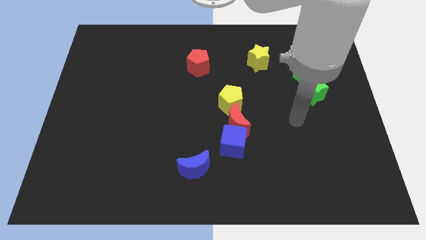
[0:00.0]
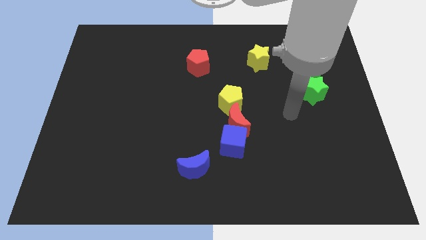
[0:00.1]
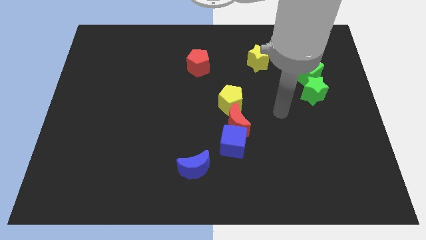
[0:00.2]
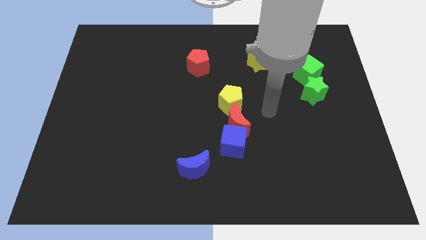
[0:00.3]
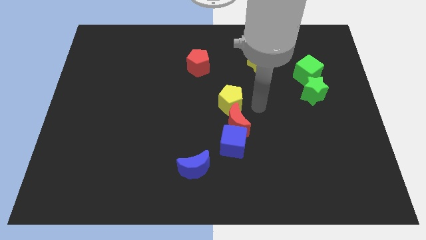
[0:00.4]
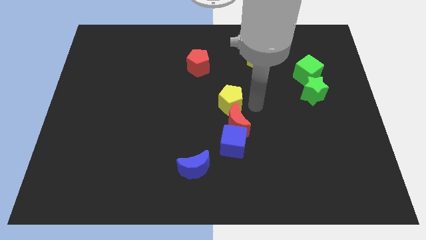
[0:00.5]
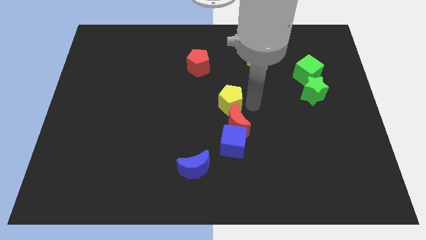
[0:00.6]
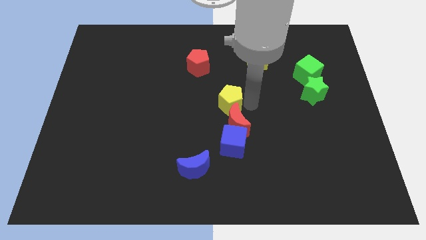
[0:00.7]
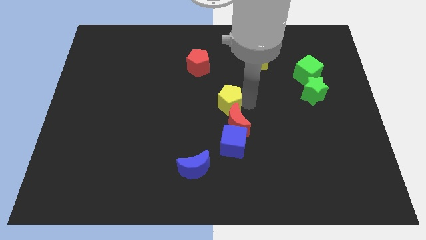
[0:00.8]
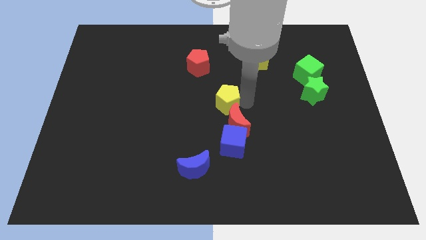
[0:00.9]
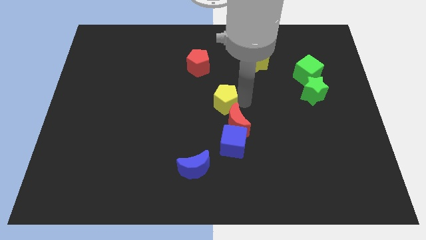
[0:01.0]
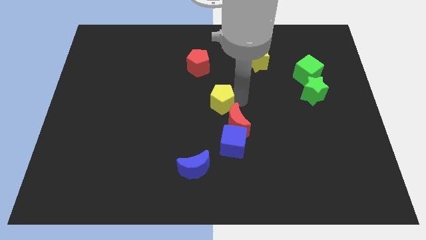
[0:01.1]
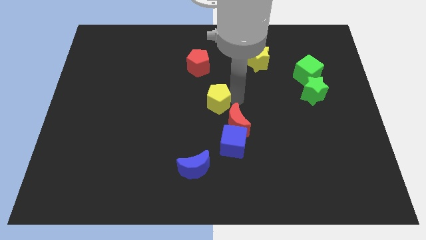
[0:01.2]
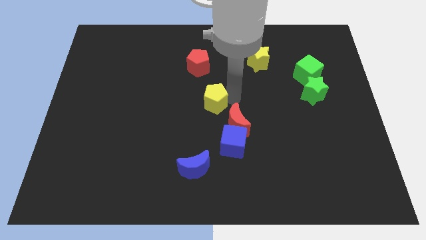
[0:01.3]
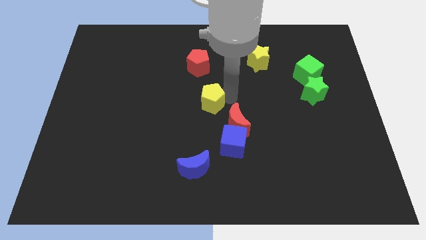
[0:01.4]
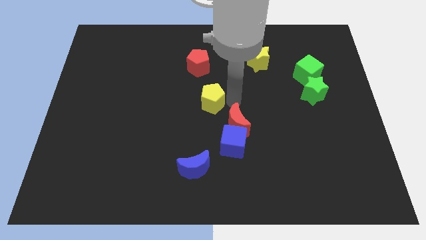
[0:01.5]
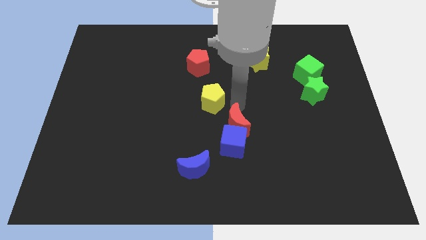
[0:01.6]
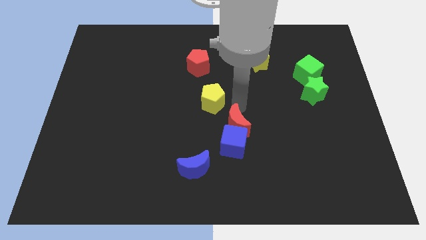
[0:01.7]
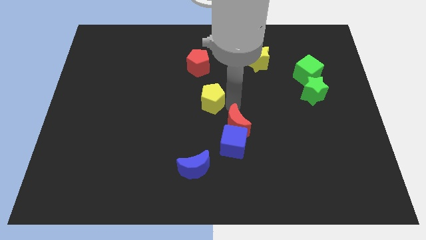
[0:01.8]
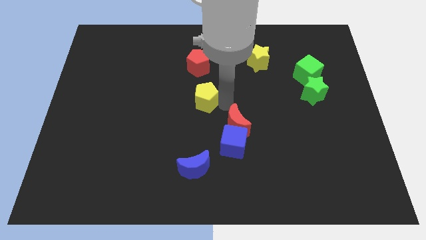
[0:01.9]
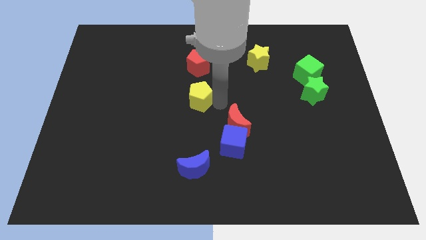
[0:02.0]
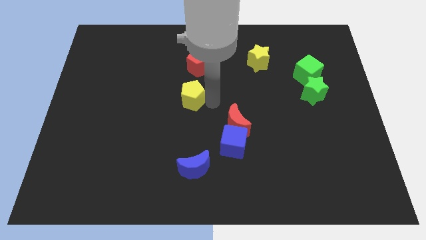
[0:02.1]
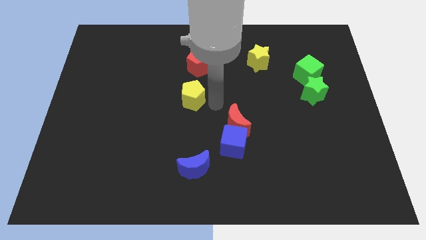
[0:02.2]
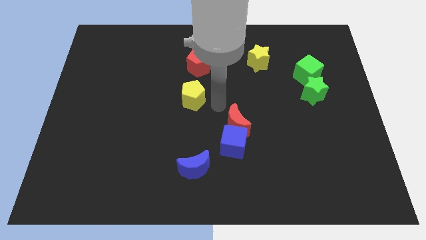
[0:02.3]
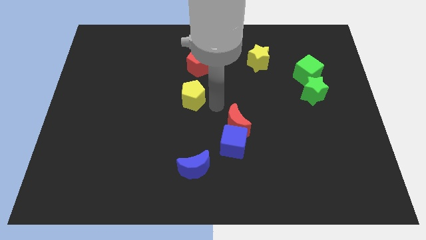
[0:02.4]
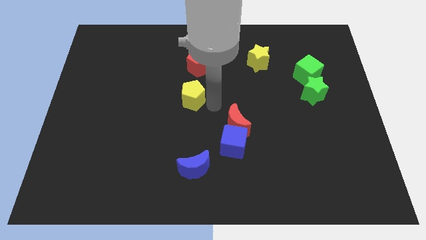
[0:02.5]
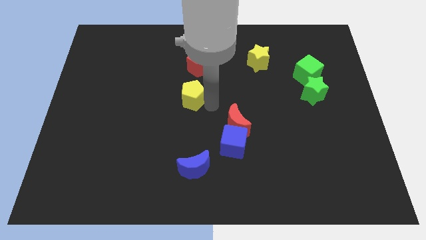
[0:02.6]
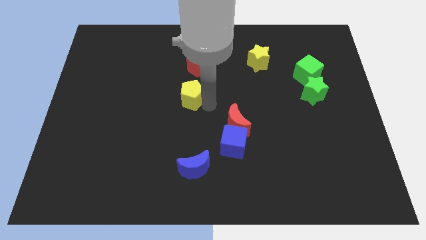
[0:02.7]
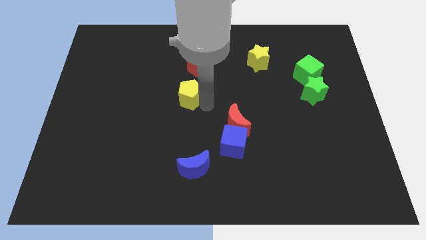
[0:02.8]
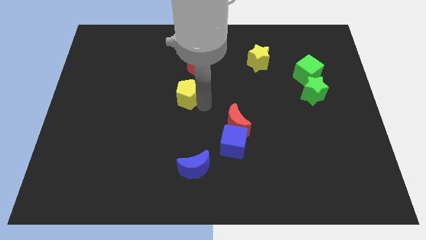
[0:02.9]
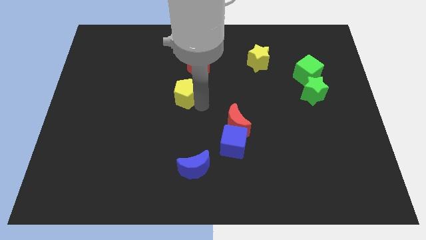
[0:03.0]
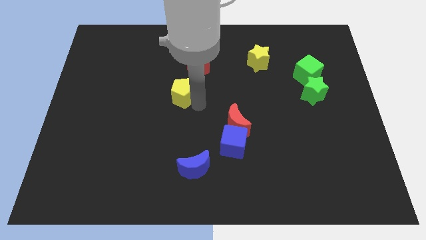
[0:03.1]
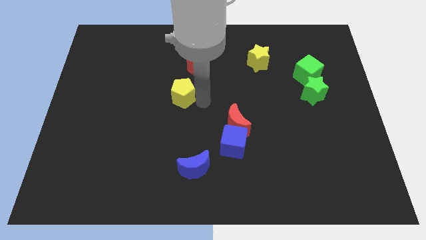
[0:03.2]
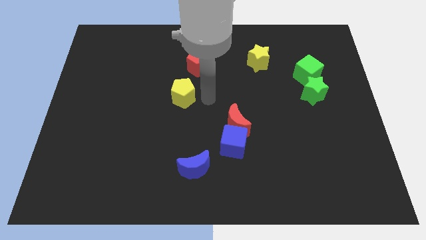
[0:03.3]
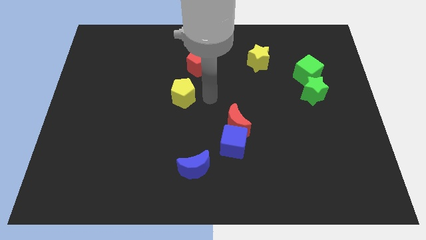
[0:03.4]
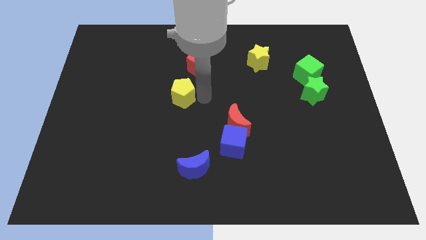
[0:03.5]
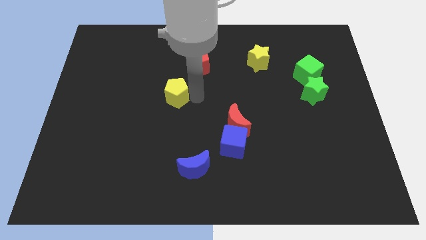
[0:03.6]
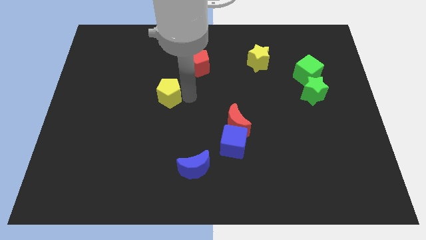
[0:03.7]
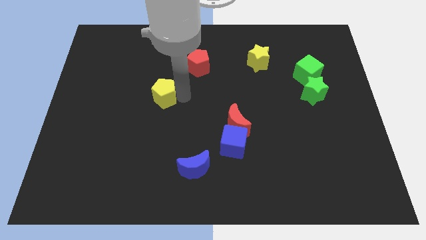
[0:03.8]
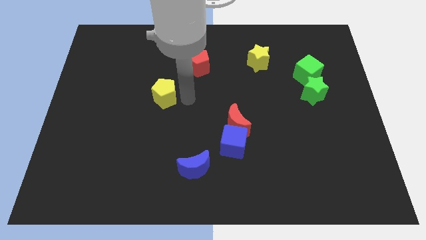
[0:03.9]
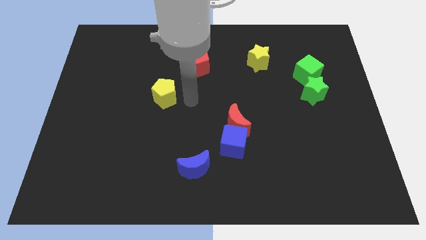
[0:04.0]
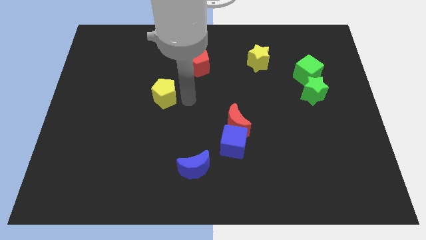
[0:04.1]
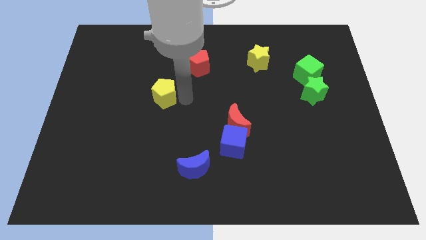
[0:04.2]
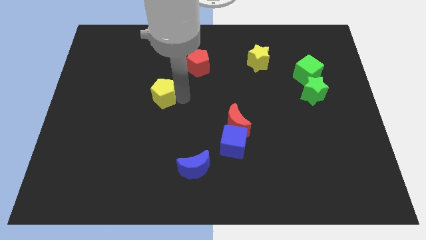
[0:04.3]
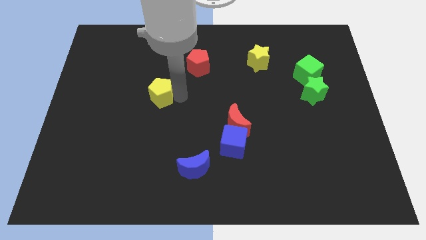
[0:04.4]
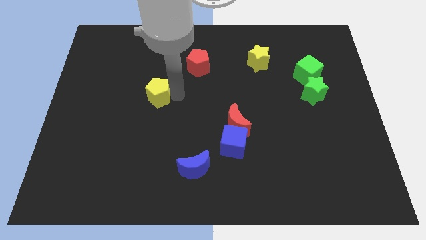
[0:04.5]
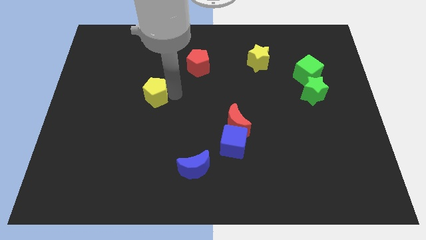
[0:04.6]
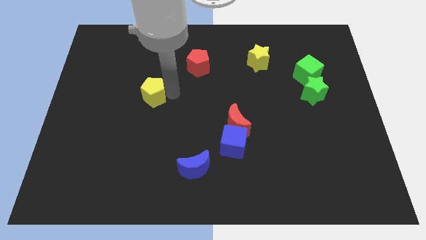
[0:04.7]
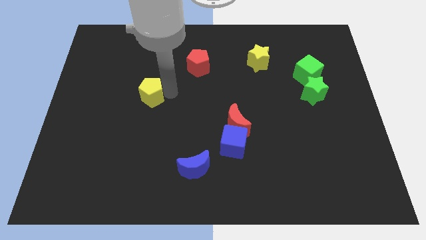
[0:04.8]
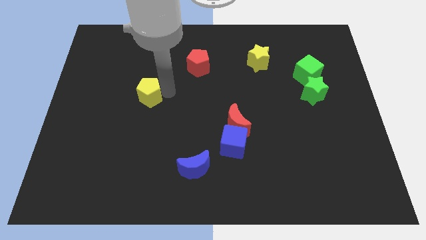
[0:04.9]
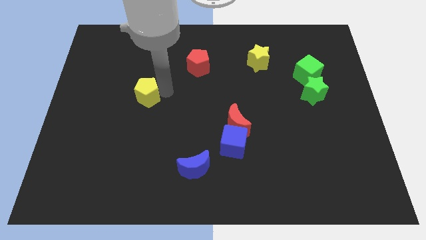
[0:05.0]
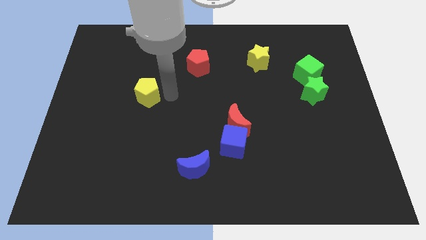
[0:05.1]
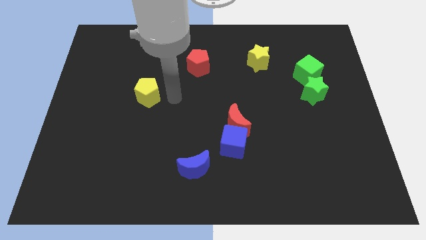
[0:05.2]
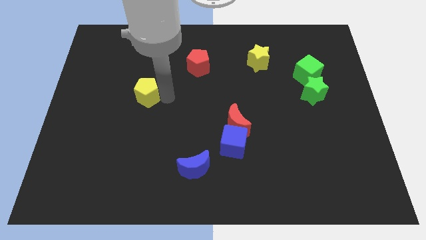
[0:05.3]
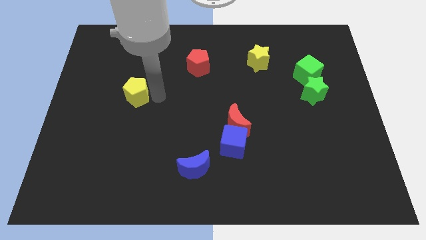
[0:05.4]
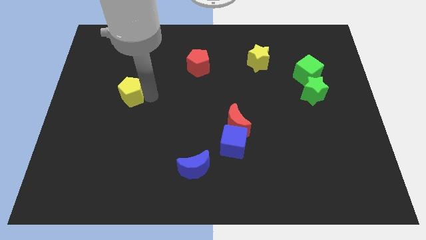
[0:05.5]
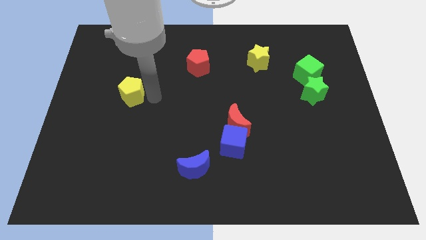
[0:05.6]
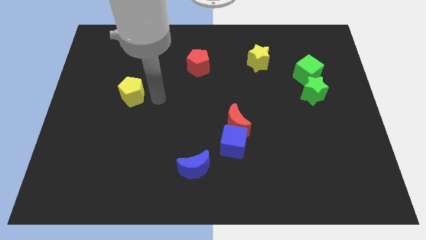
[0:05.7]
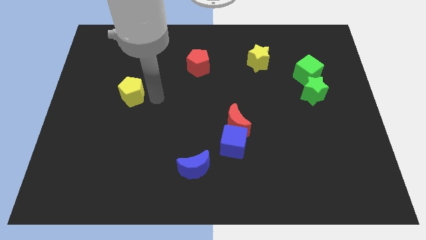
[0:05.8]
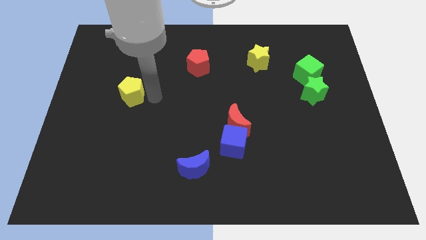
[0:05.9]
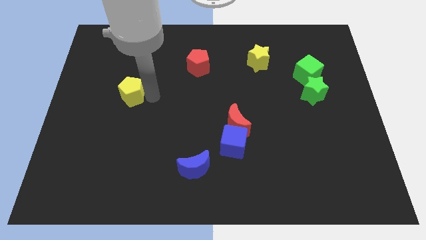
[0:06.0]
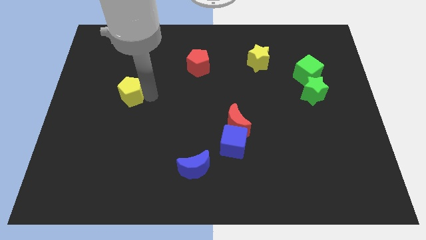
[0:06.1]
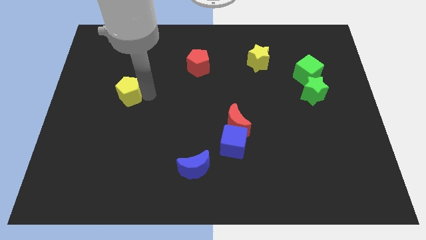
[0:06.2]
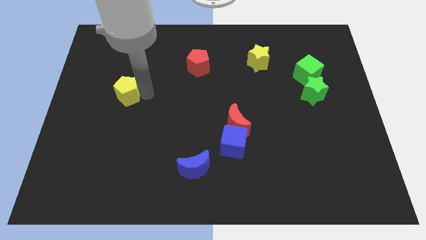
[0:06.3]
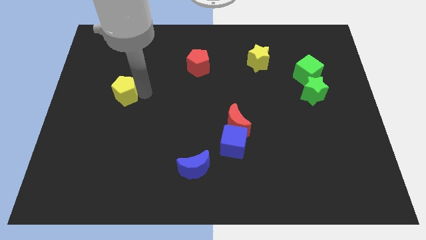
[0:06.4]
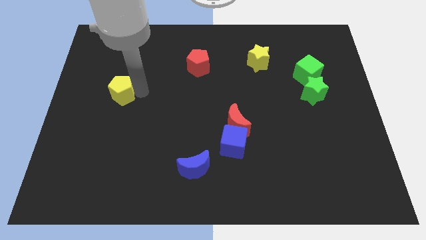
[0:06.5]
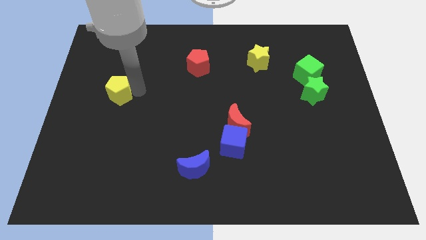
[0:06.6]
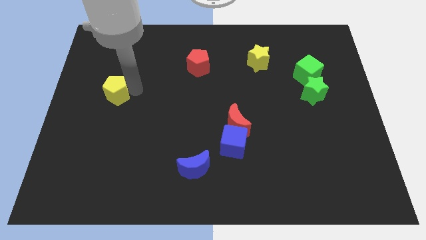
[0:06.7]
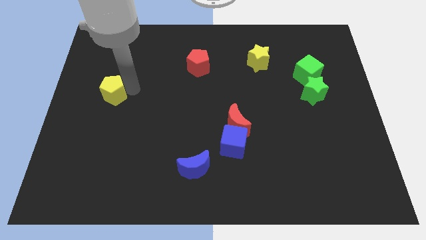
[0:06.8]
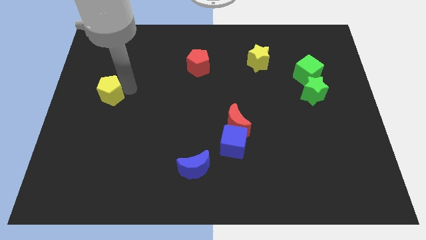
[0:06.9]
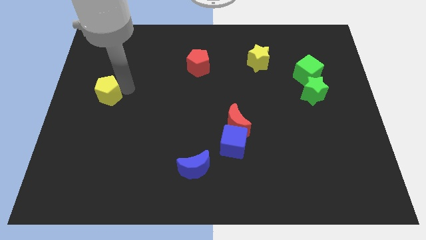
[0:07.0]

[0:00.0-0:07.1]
slide the yellow pentagon to the left side
